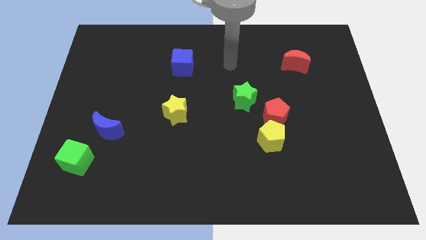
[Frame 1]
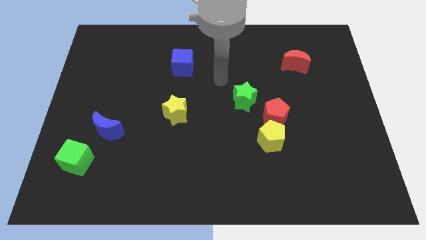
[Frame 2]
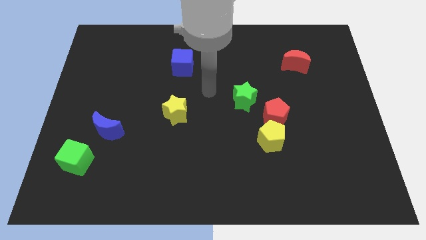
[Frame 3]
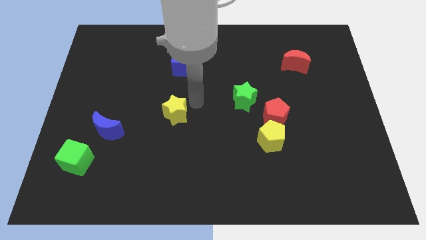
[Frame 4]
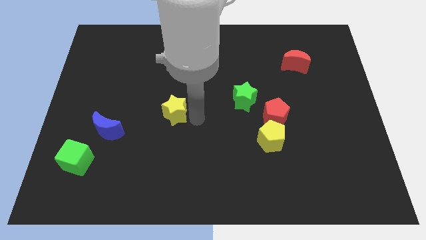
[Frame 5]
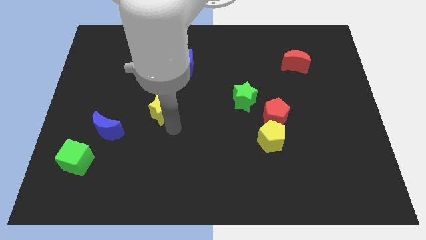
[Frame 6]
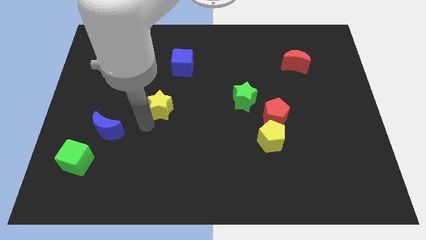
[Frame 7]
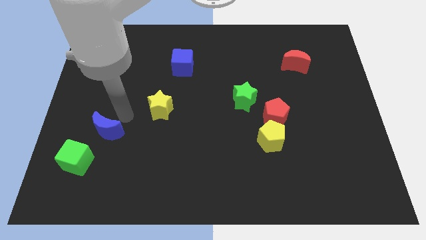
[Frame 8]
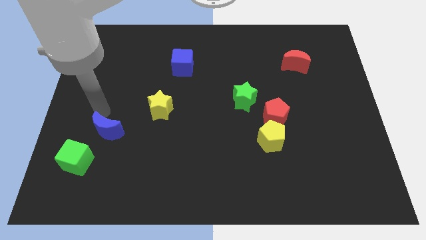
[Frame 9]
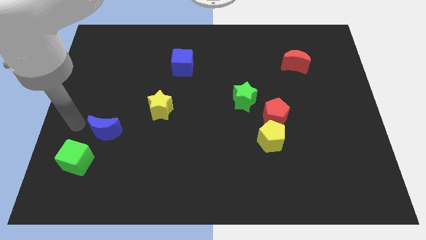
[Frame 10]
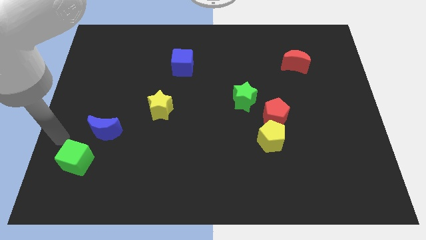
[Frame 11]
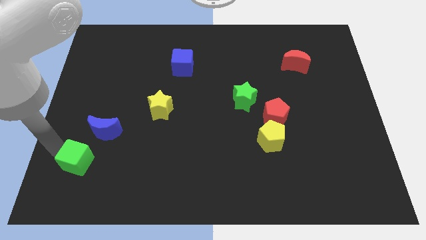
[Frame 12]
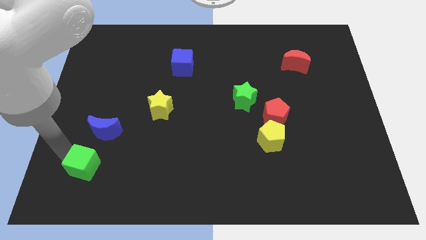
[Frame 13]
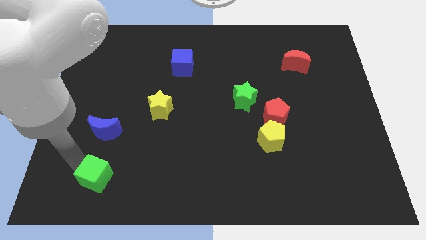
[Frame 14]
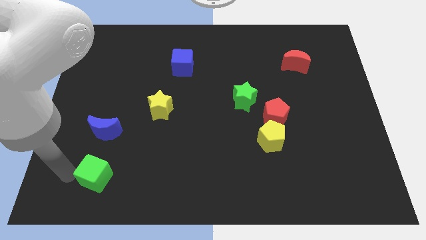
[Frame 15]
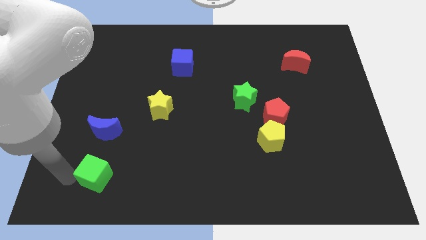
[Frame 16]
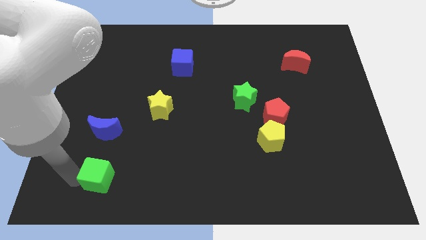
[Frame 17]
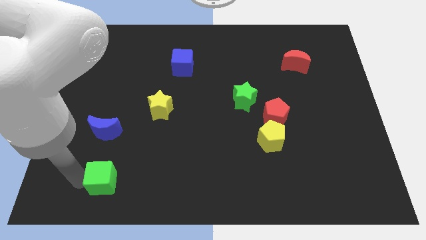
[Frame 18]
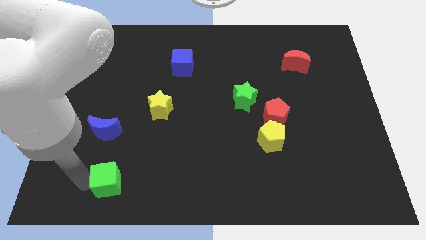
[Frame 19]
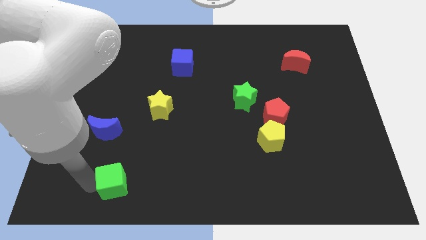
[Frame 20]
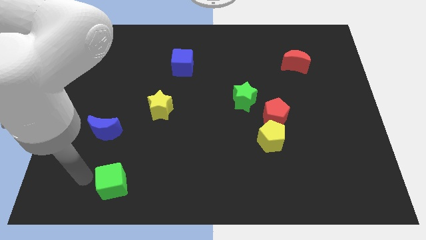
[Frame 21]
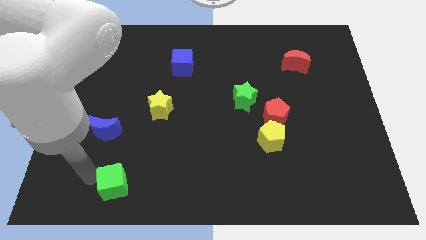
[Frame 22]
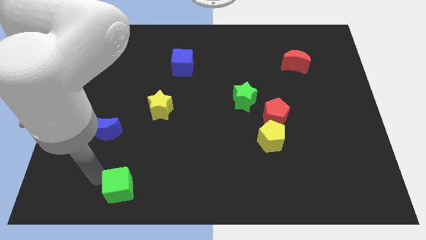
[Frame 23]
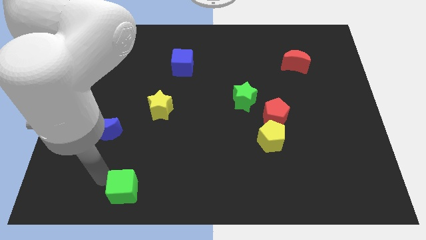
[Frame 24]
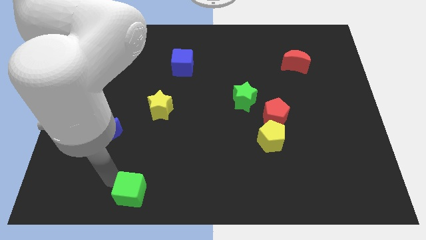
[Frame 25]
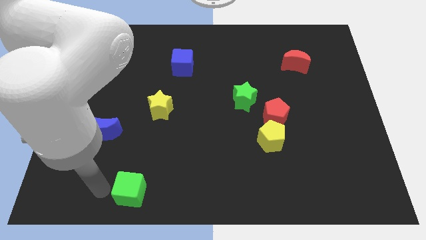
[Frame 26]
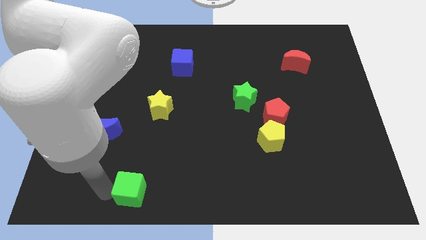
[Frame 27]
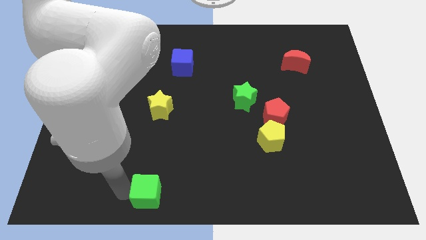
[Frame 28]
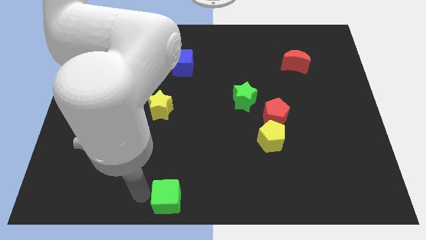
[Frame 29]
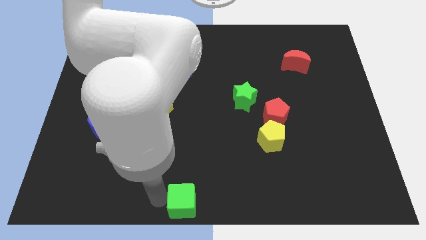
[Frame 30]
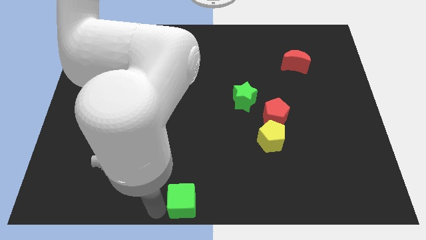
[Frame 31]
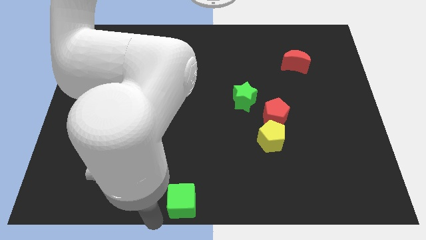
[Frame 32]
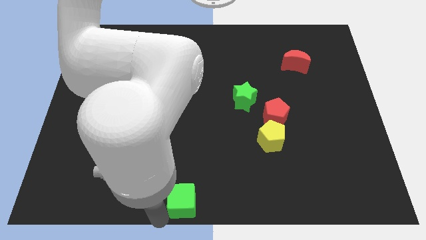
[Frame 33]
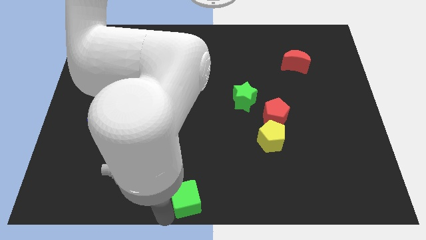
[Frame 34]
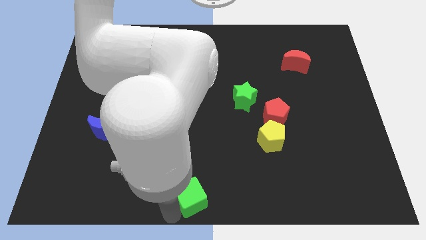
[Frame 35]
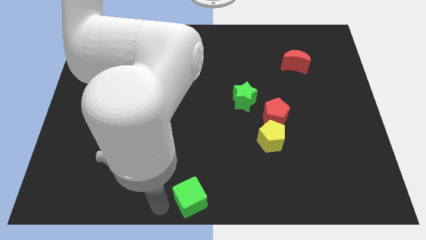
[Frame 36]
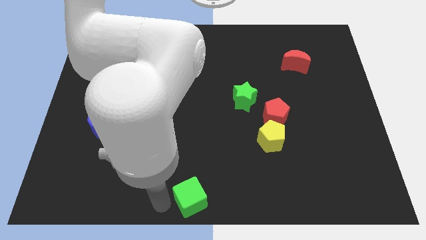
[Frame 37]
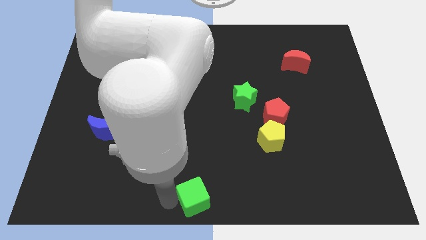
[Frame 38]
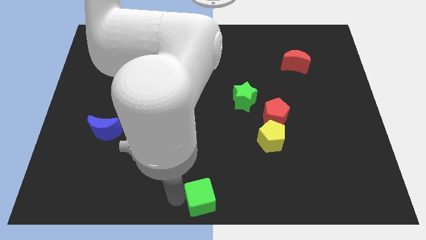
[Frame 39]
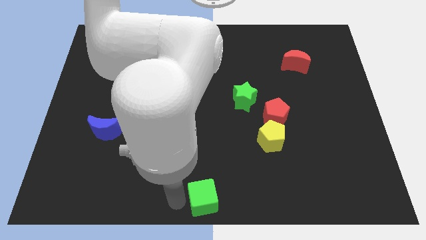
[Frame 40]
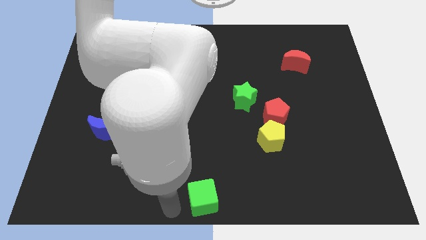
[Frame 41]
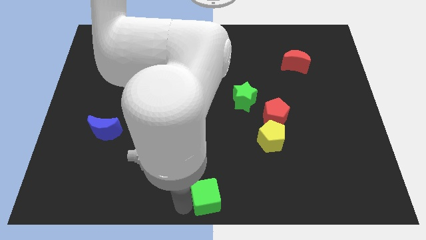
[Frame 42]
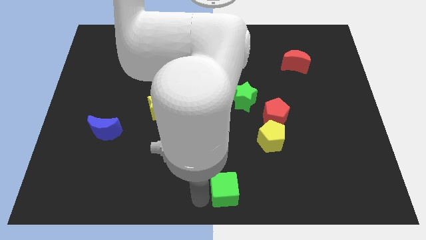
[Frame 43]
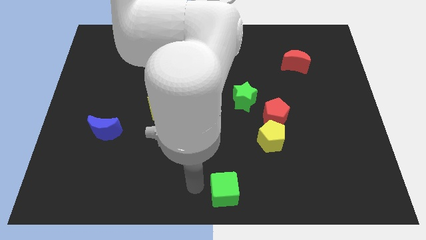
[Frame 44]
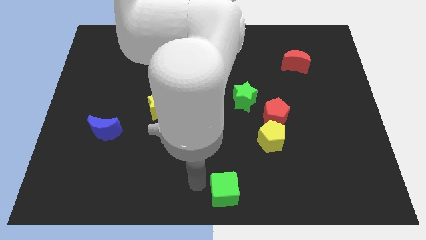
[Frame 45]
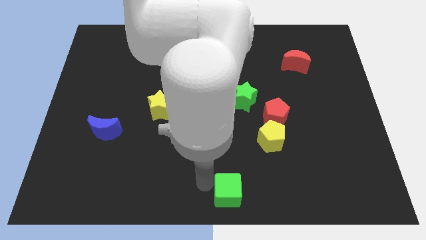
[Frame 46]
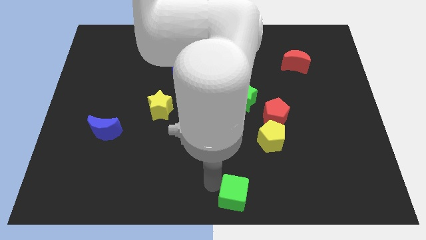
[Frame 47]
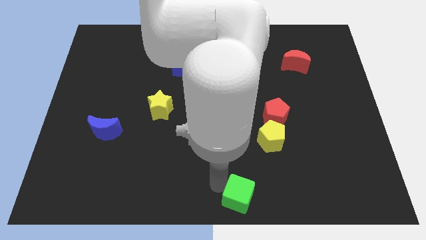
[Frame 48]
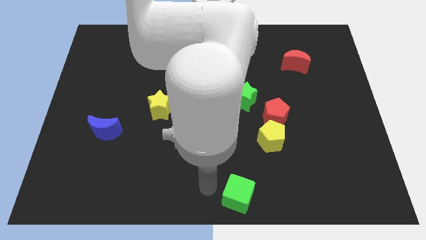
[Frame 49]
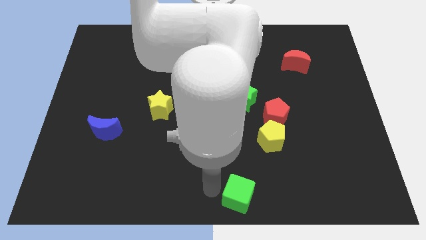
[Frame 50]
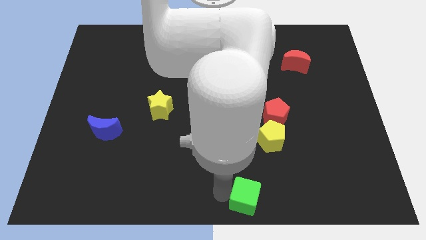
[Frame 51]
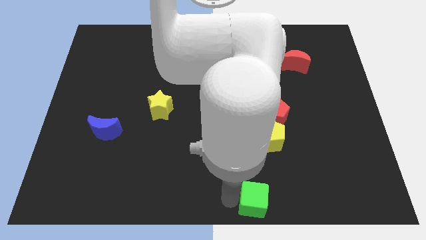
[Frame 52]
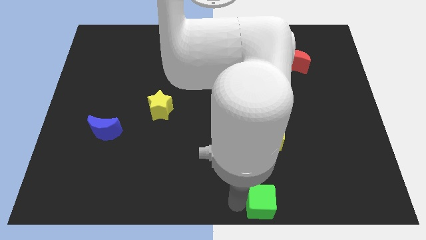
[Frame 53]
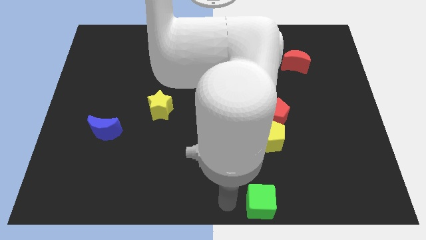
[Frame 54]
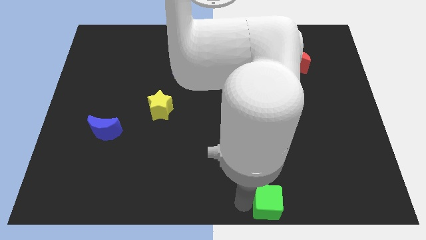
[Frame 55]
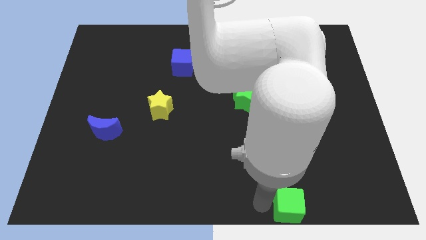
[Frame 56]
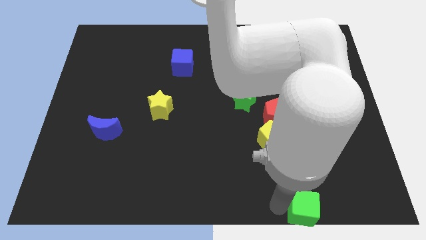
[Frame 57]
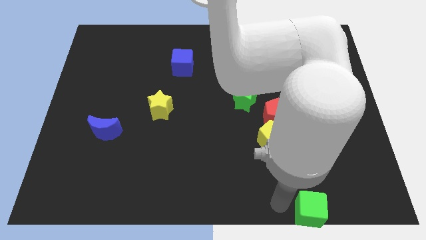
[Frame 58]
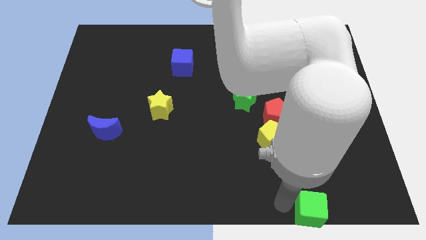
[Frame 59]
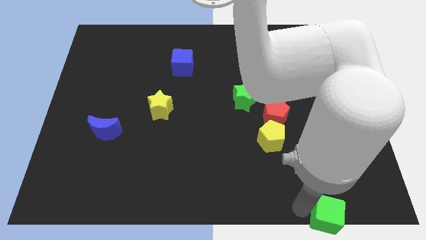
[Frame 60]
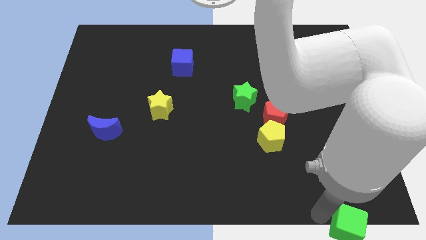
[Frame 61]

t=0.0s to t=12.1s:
slide the green cube to the bottom right corner
